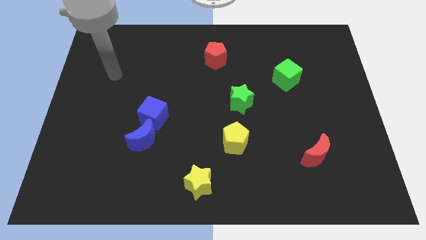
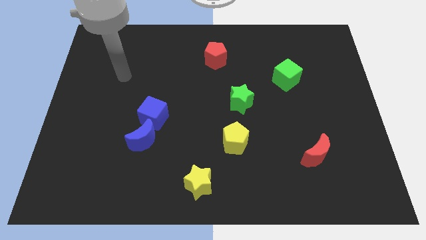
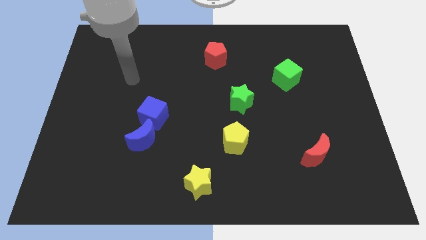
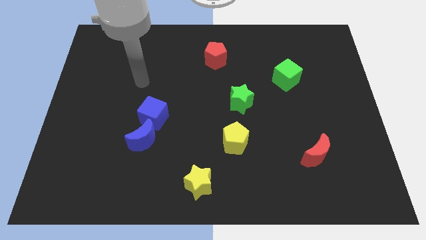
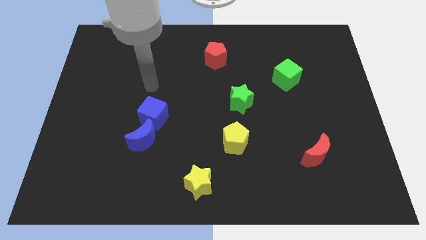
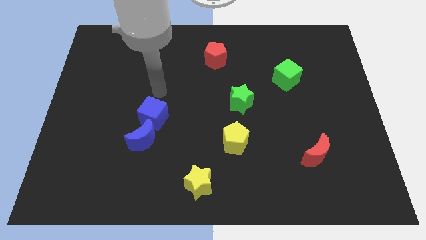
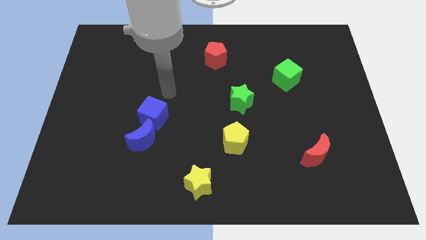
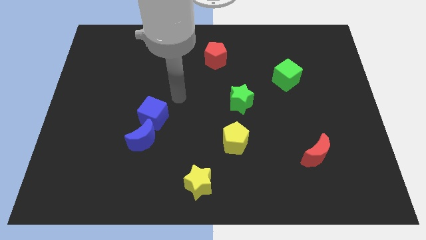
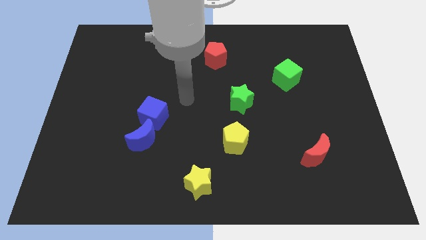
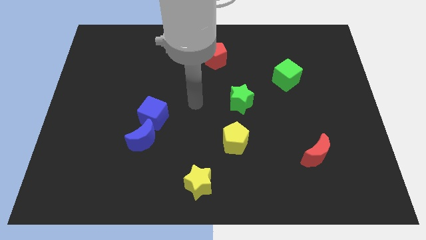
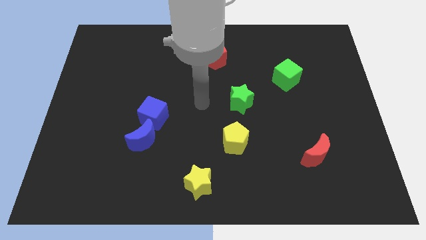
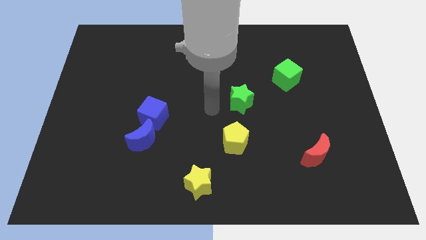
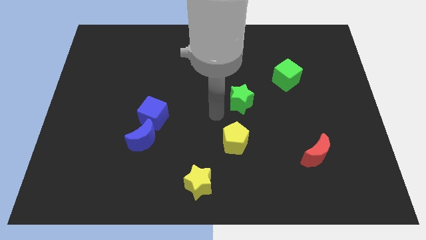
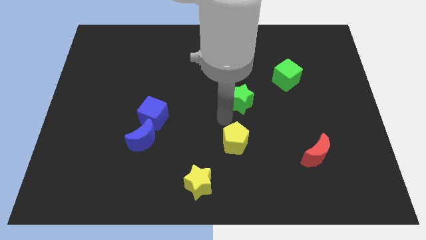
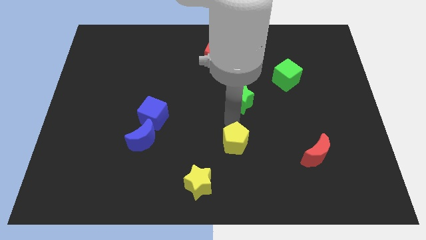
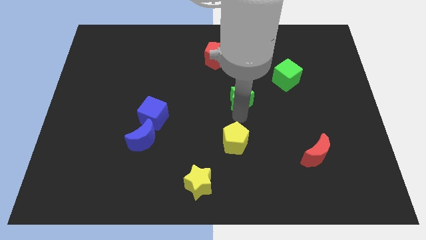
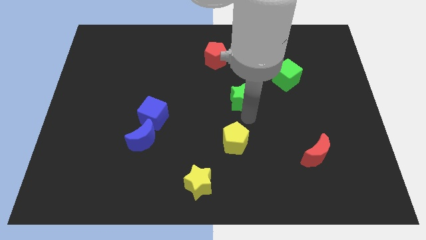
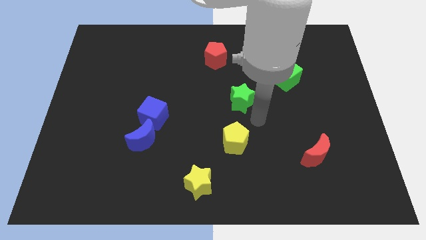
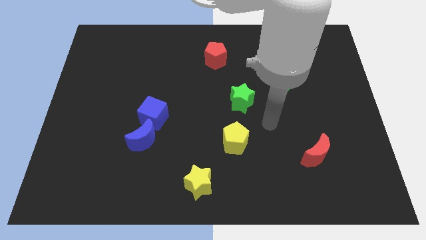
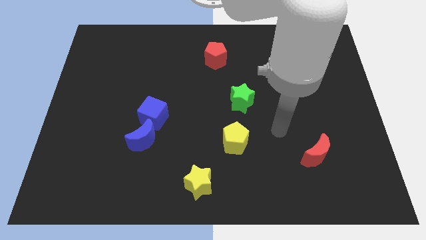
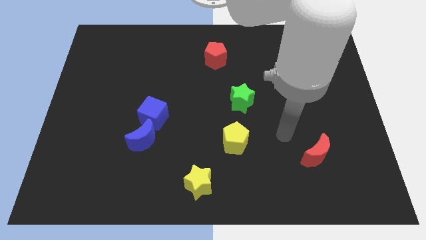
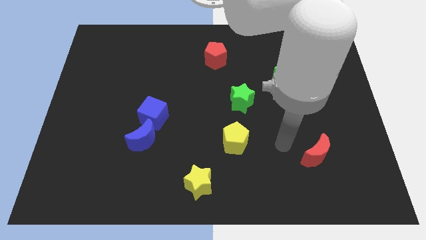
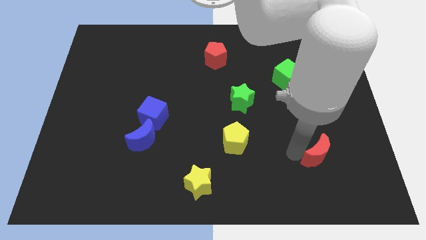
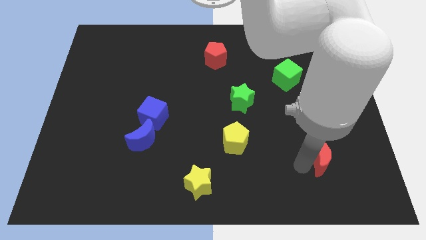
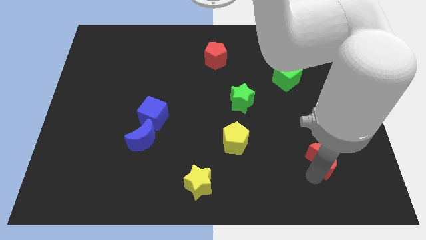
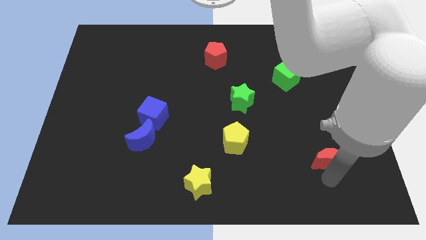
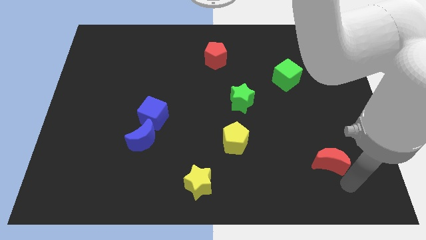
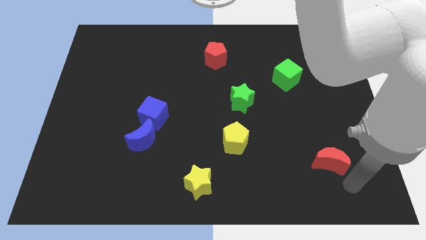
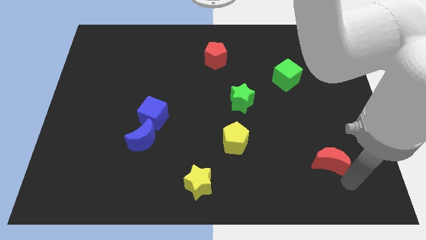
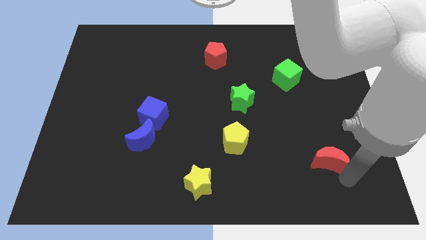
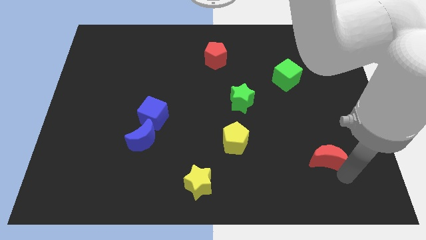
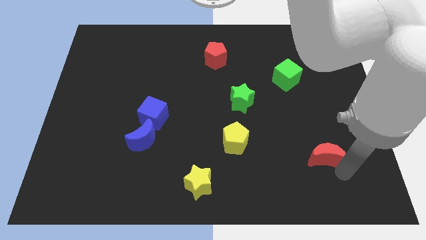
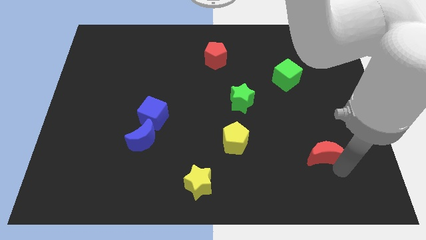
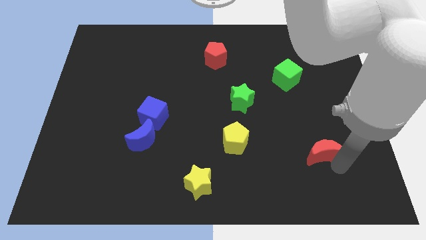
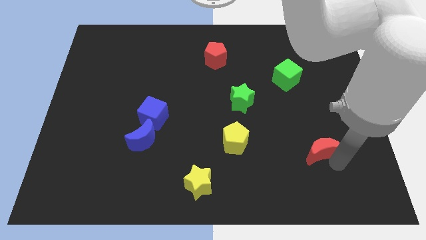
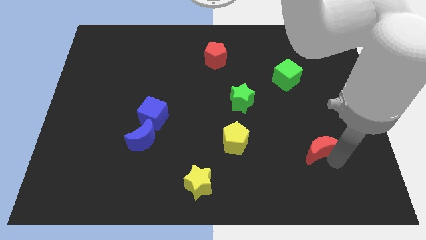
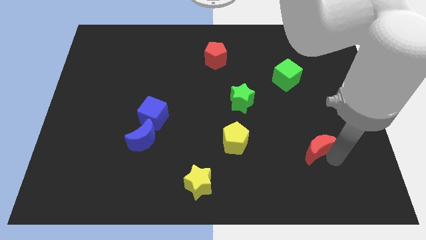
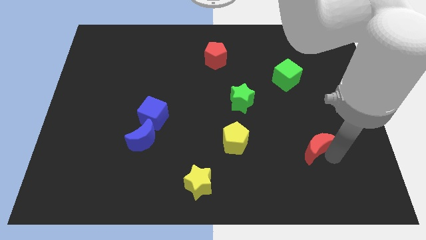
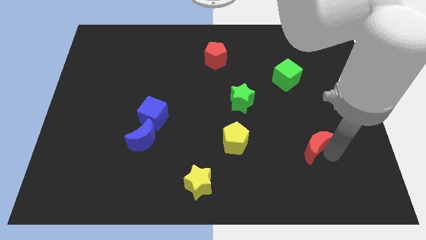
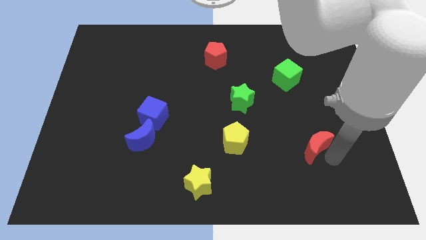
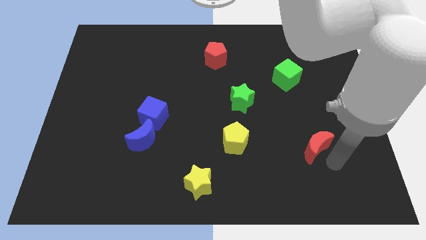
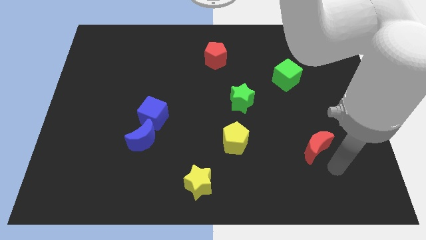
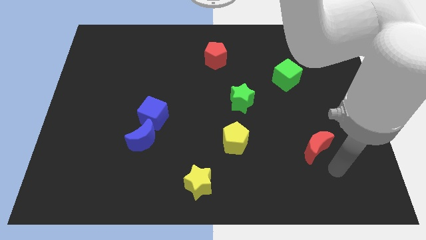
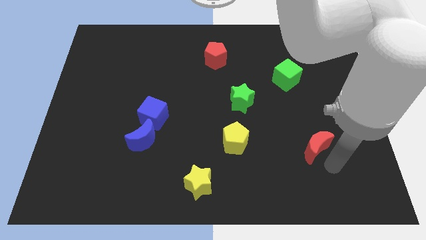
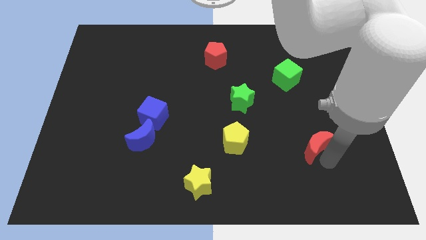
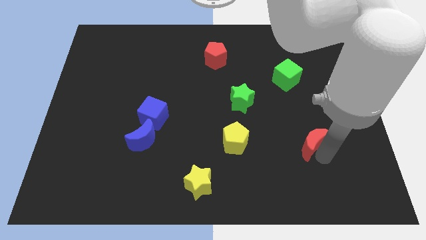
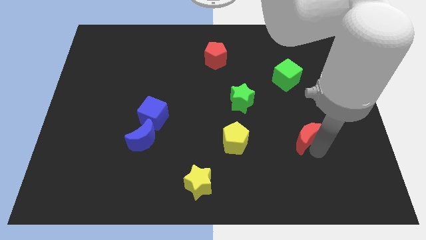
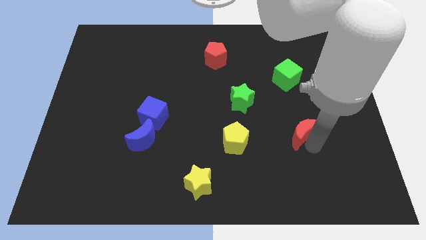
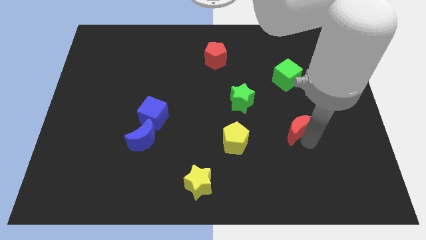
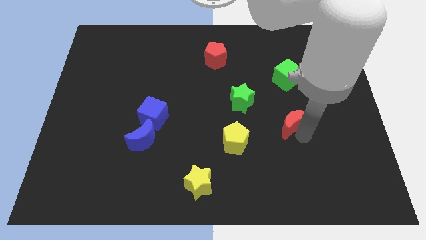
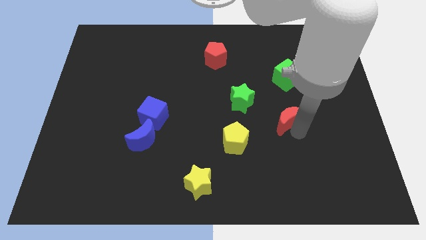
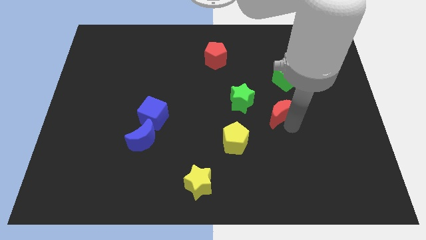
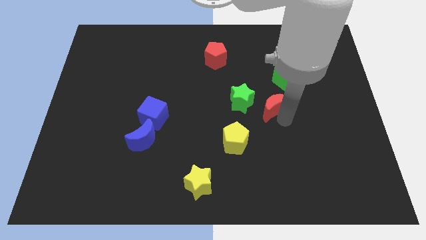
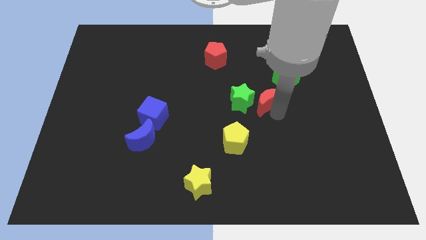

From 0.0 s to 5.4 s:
put the red moon diagonally up and to the right of the green star

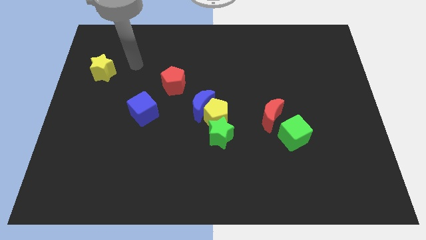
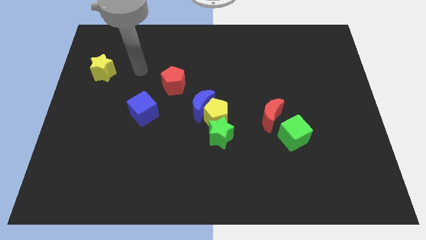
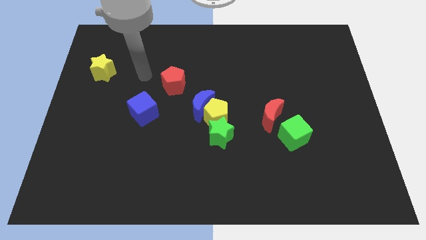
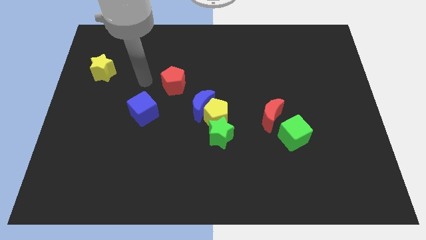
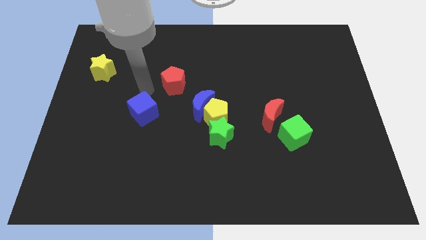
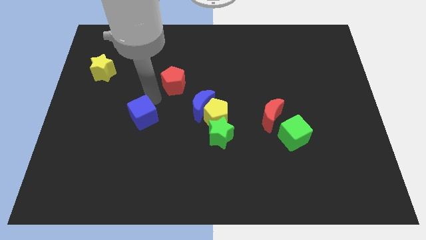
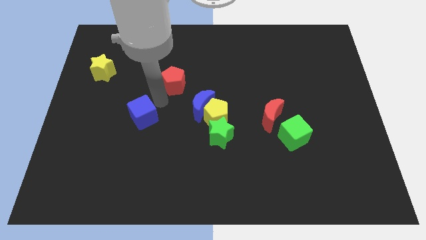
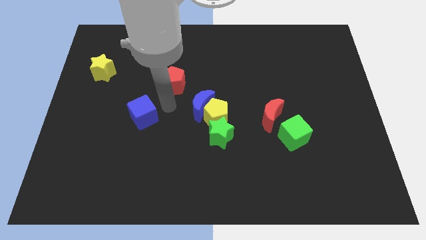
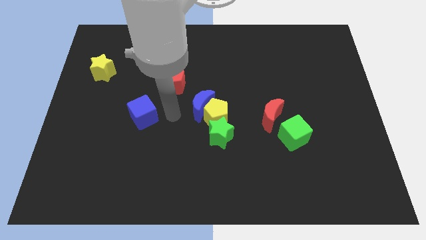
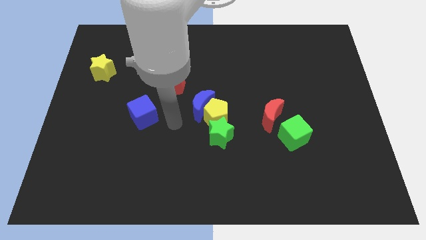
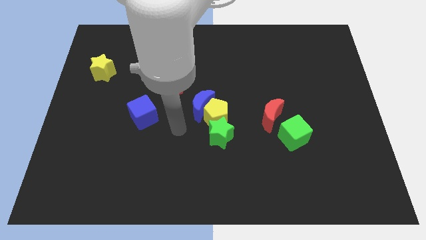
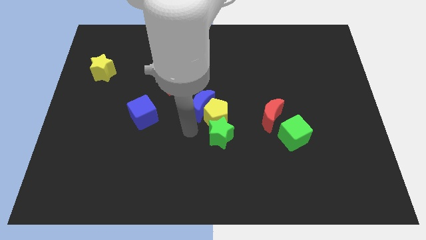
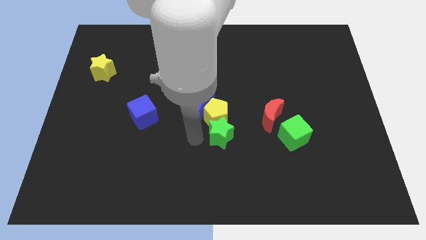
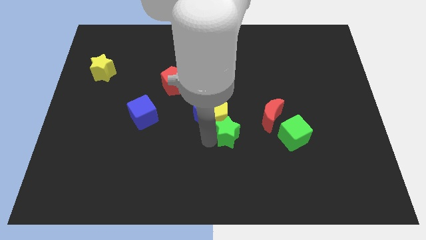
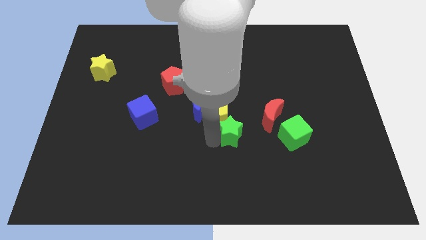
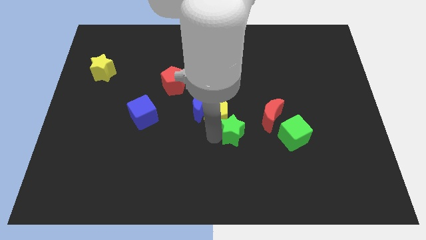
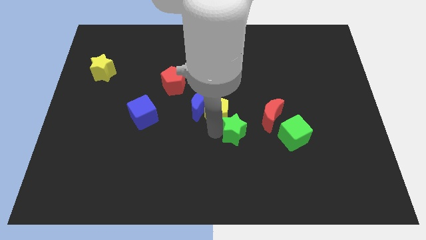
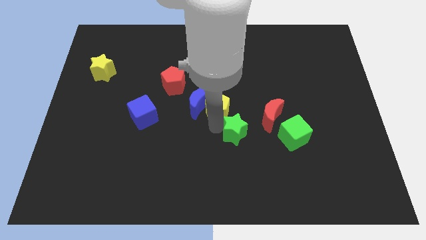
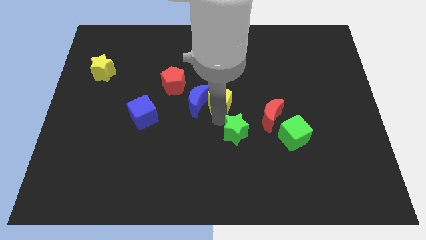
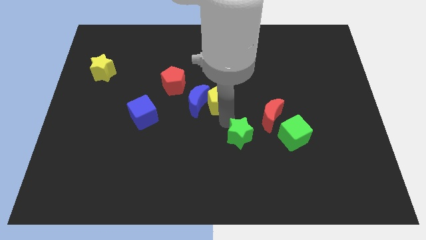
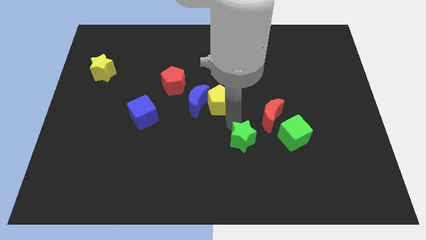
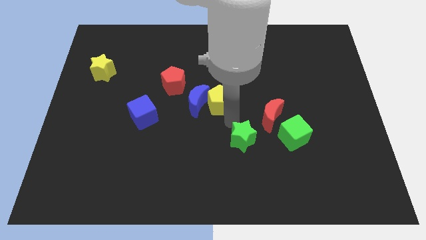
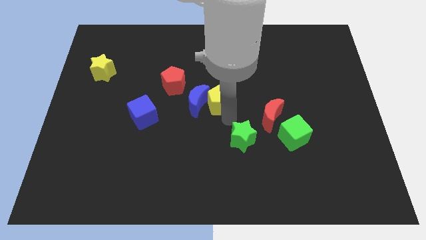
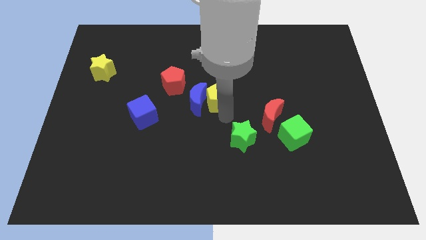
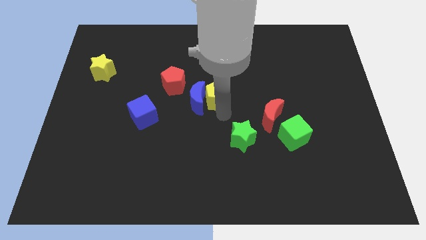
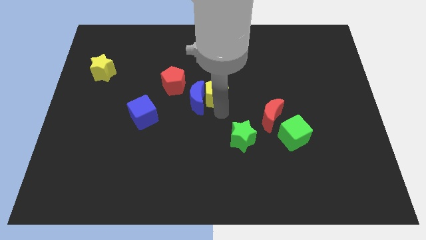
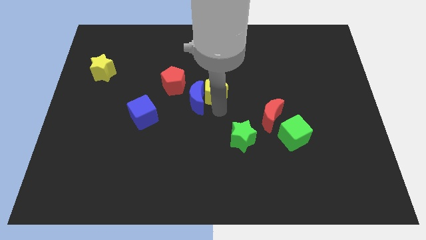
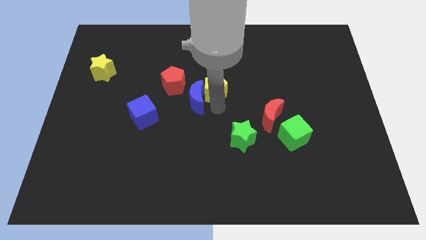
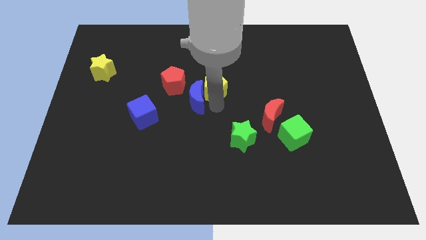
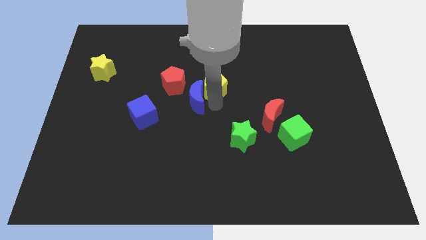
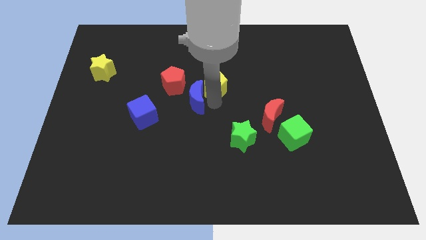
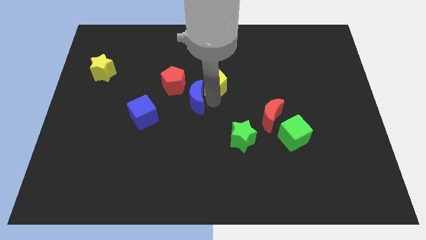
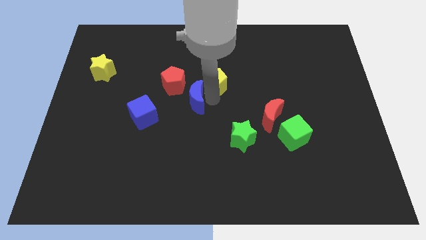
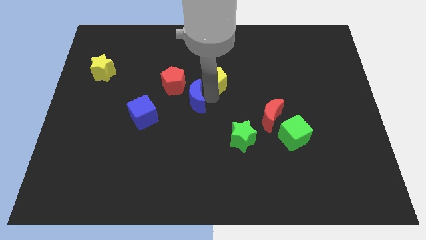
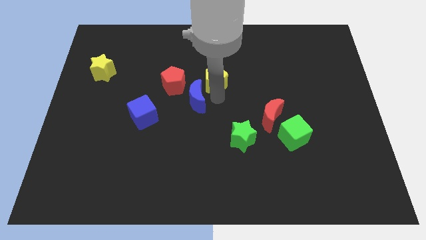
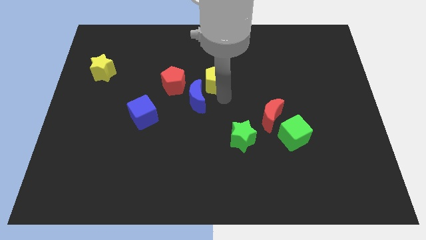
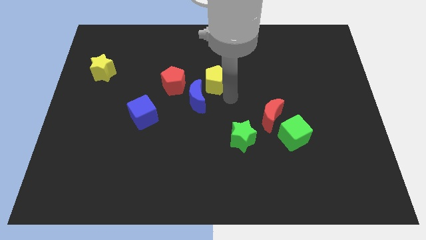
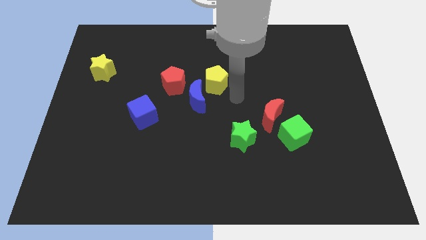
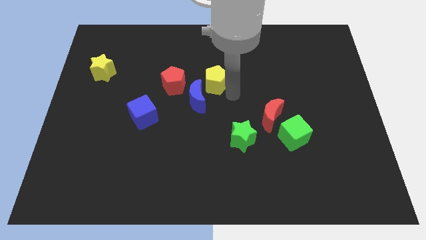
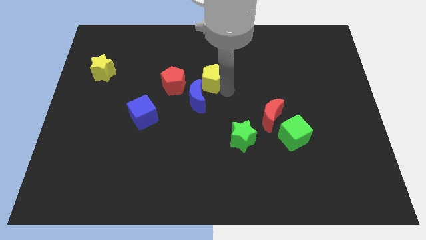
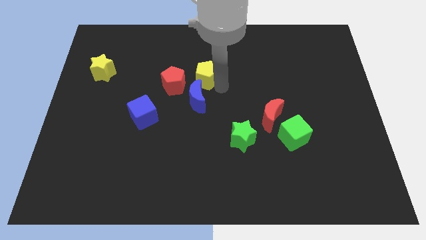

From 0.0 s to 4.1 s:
move the yellow pentagon diagonally up and to the right of the red pentagon
